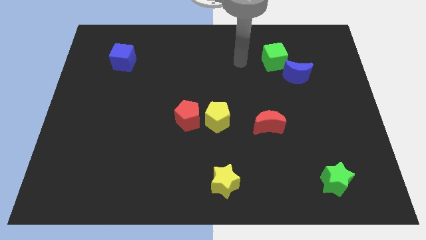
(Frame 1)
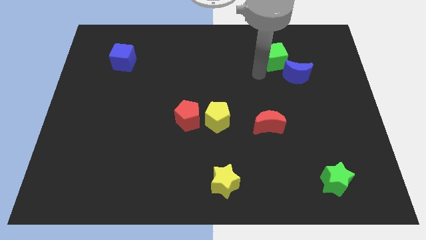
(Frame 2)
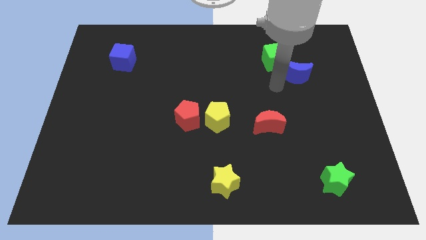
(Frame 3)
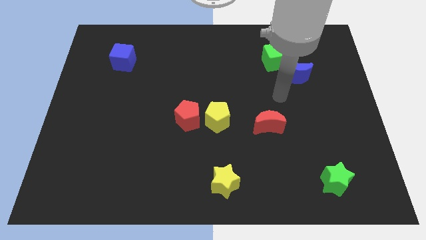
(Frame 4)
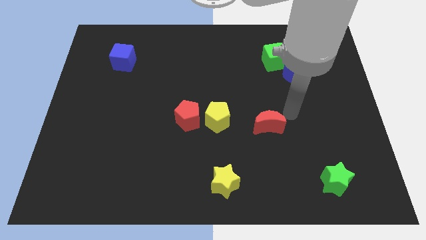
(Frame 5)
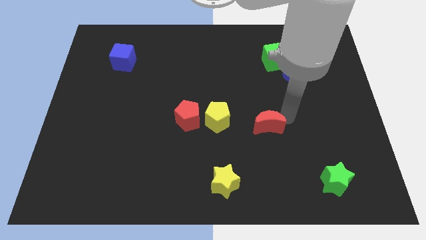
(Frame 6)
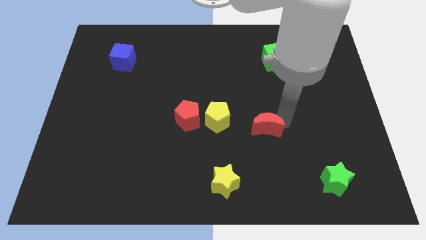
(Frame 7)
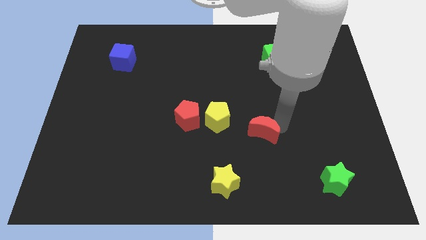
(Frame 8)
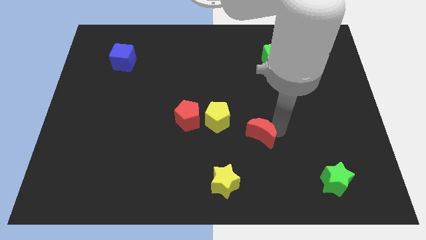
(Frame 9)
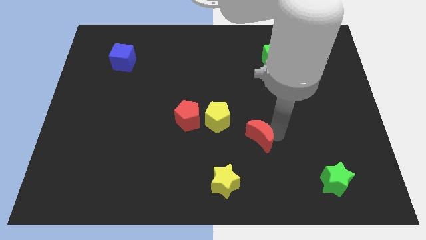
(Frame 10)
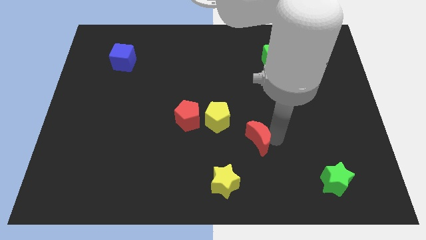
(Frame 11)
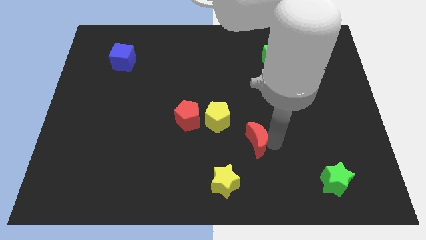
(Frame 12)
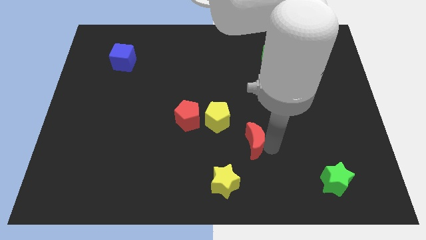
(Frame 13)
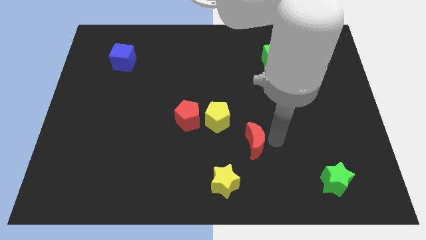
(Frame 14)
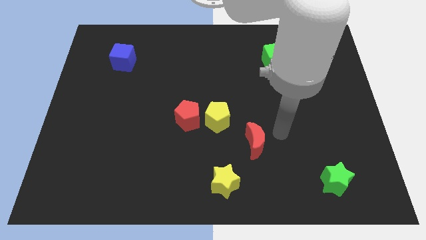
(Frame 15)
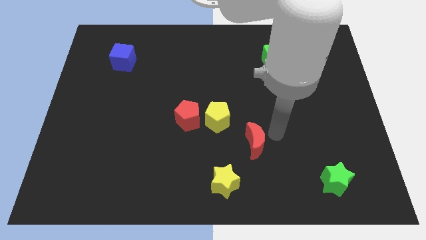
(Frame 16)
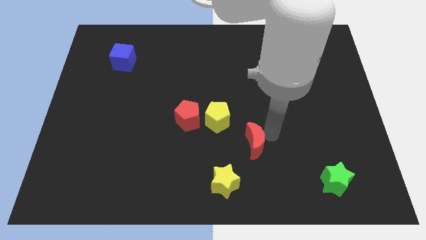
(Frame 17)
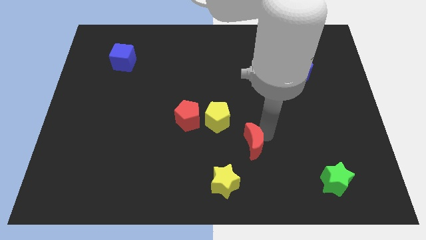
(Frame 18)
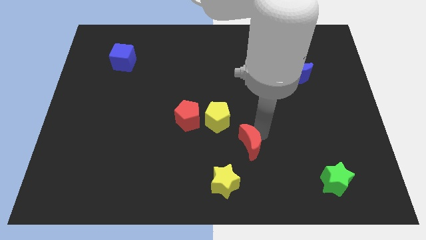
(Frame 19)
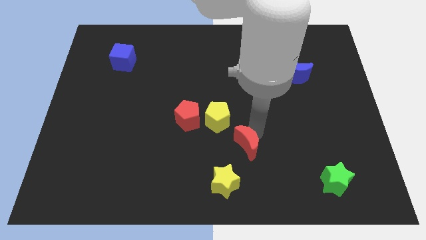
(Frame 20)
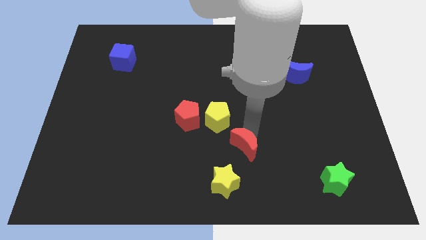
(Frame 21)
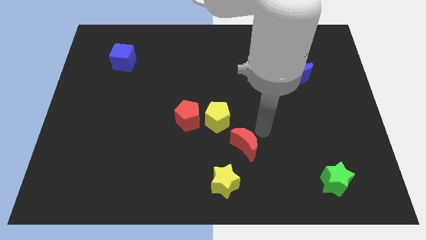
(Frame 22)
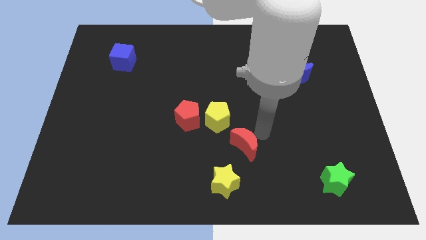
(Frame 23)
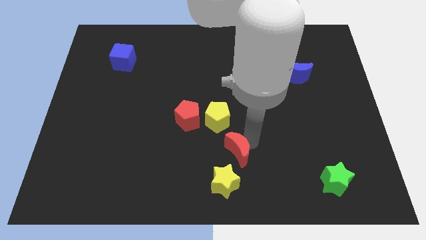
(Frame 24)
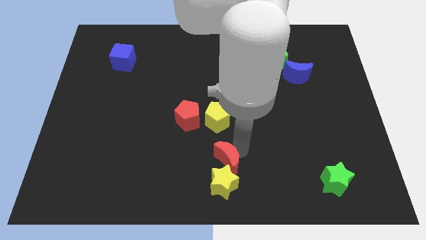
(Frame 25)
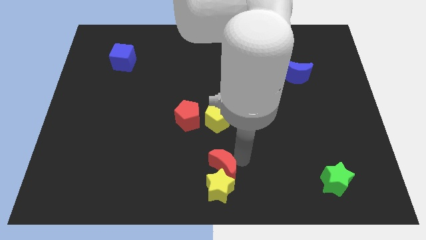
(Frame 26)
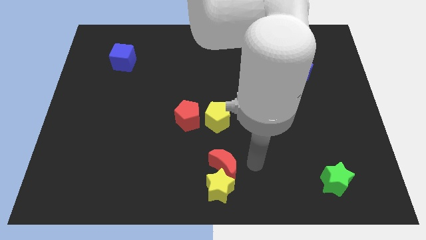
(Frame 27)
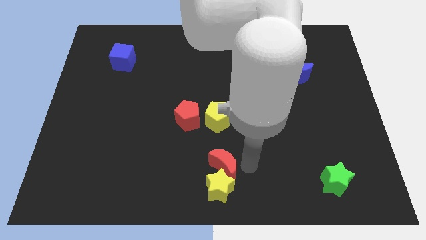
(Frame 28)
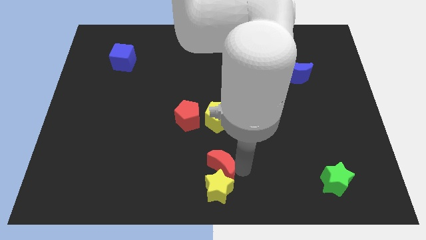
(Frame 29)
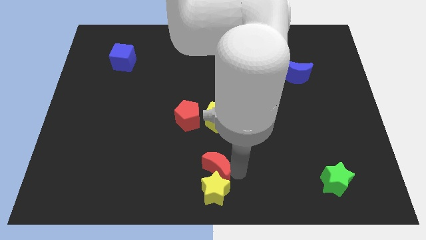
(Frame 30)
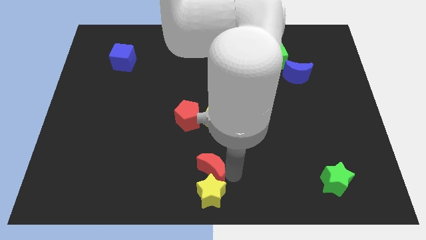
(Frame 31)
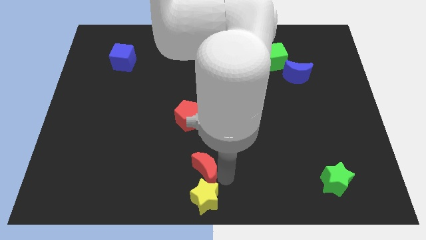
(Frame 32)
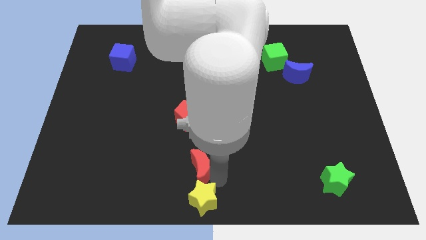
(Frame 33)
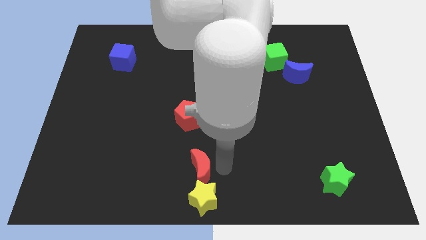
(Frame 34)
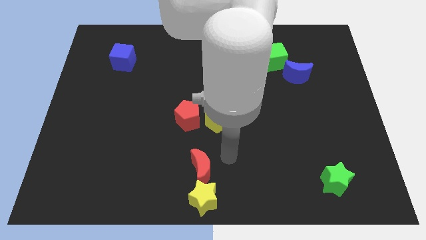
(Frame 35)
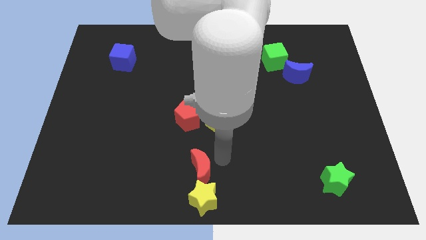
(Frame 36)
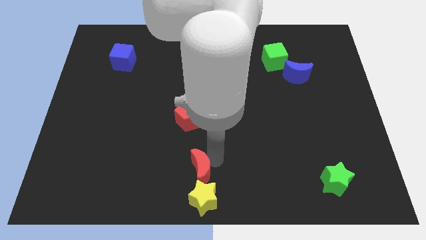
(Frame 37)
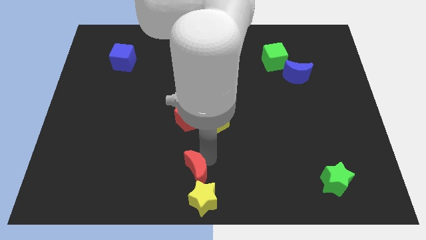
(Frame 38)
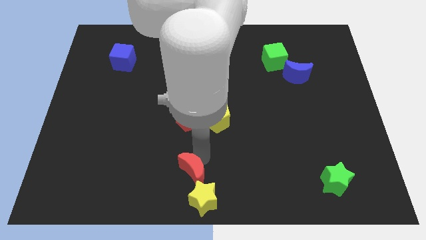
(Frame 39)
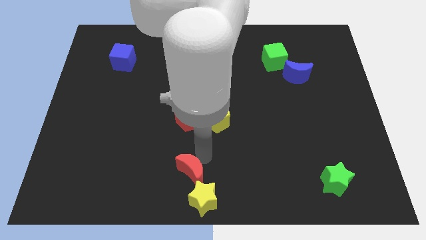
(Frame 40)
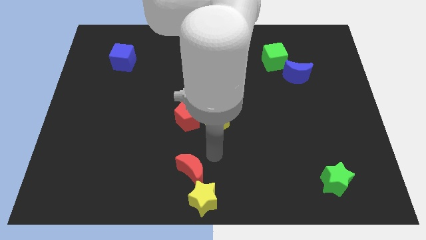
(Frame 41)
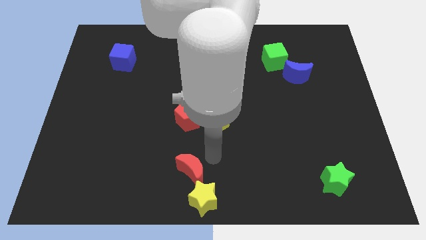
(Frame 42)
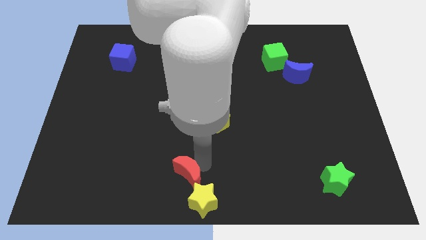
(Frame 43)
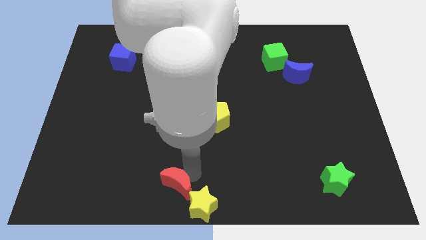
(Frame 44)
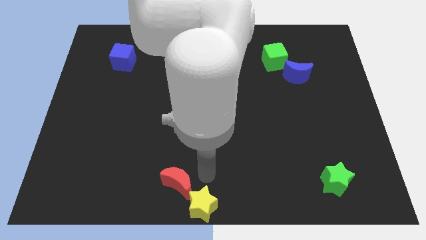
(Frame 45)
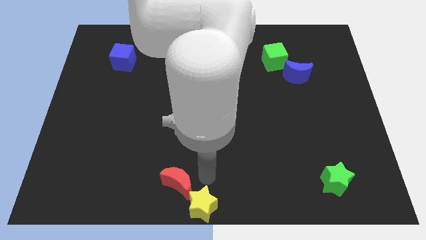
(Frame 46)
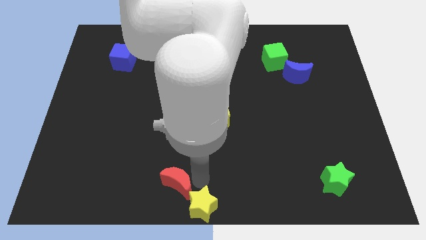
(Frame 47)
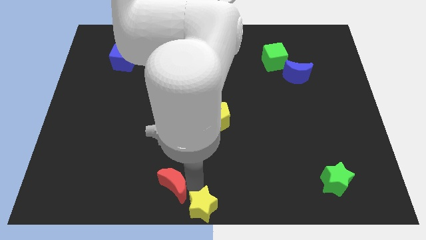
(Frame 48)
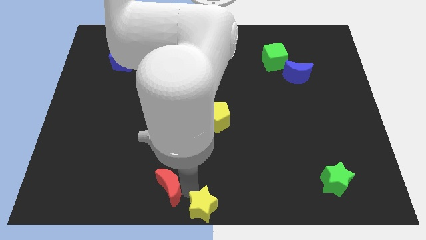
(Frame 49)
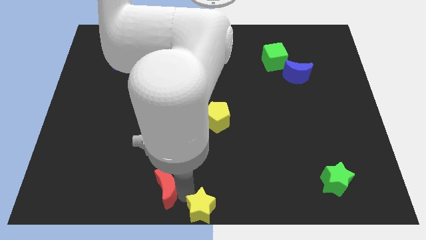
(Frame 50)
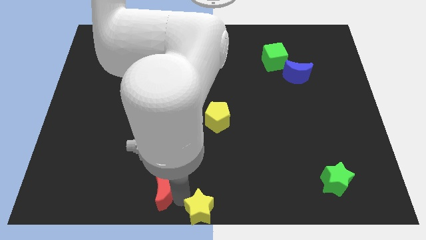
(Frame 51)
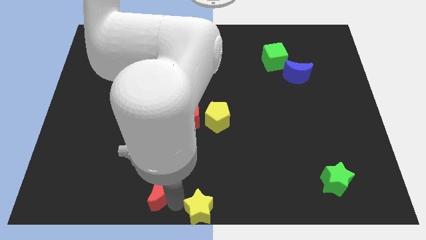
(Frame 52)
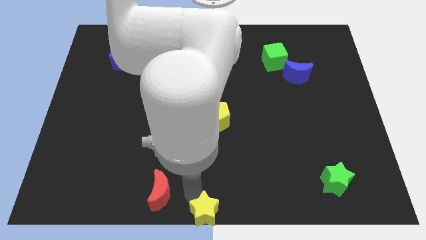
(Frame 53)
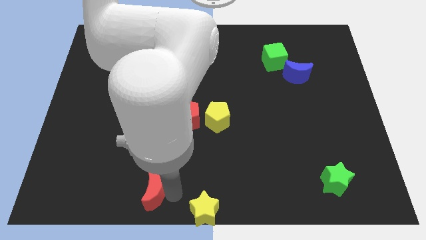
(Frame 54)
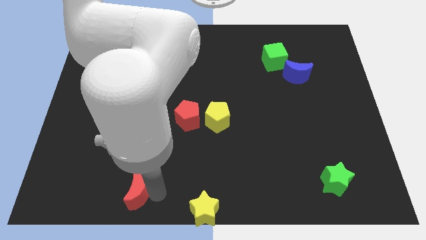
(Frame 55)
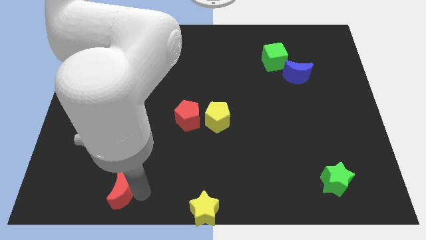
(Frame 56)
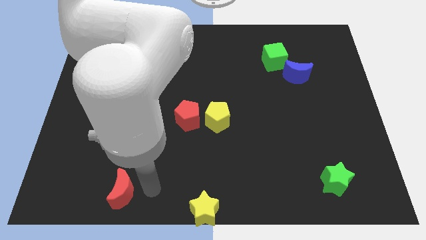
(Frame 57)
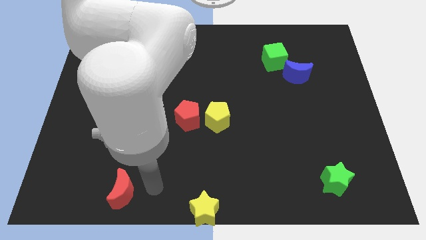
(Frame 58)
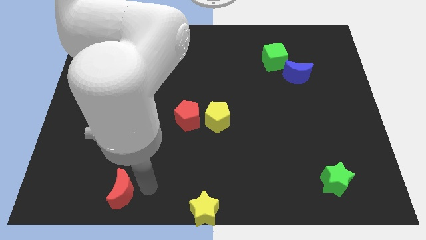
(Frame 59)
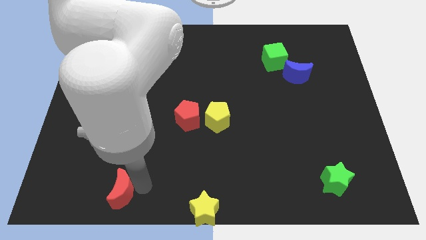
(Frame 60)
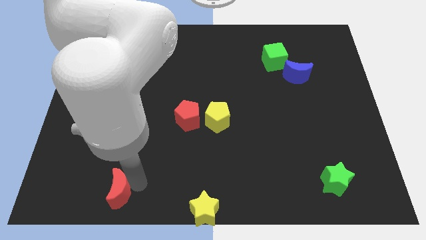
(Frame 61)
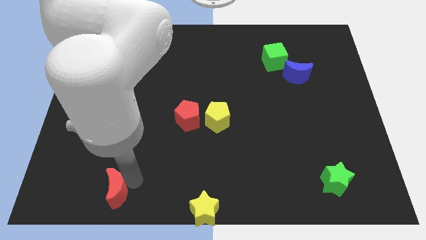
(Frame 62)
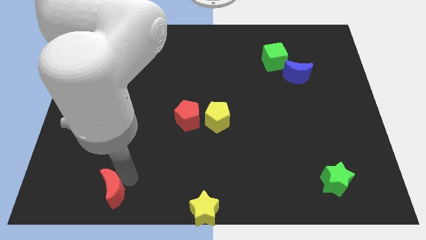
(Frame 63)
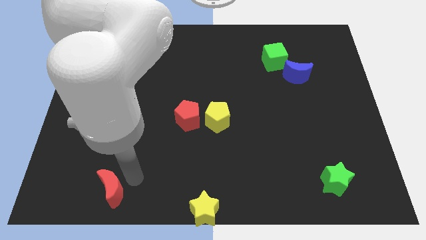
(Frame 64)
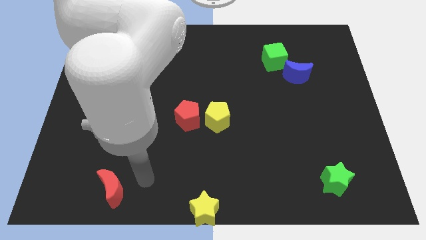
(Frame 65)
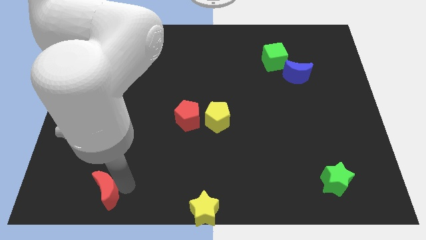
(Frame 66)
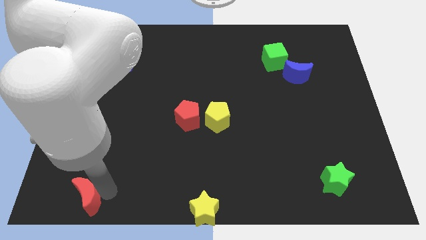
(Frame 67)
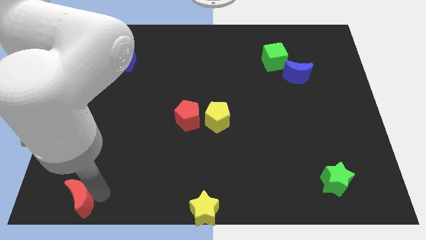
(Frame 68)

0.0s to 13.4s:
slide the red moon to the bottom left

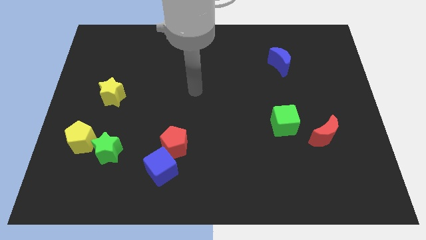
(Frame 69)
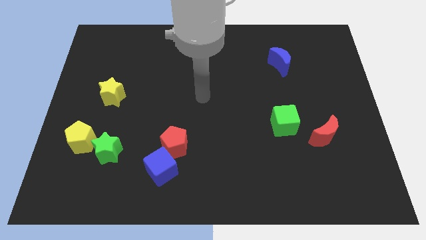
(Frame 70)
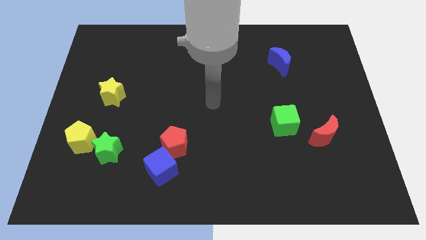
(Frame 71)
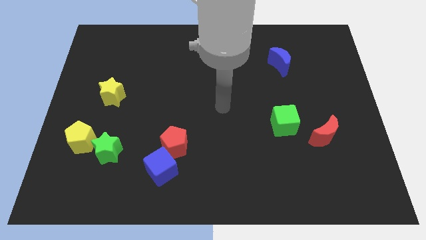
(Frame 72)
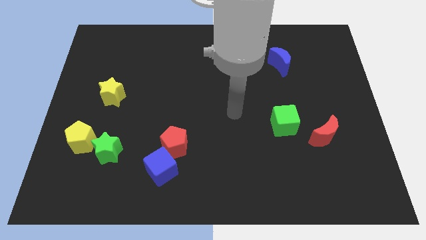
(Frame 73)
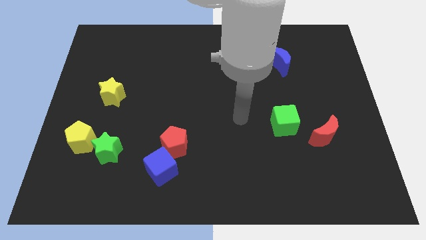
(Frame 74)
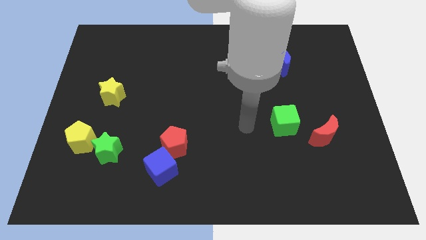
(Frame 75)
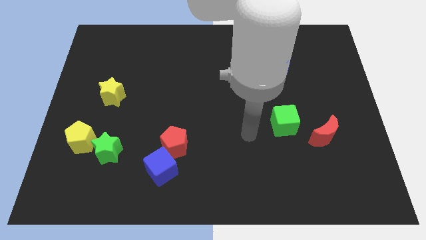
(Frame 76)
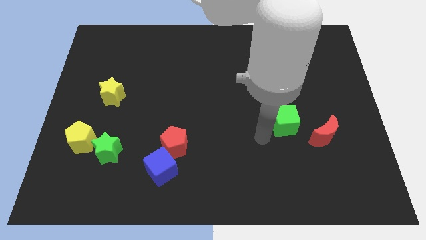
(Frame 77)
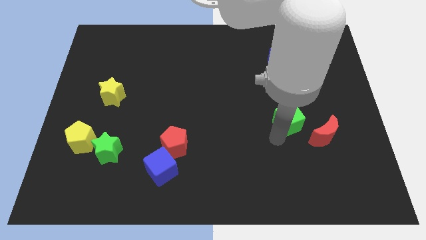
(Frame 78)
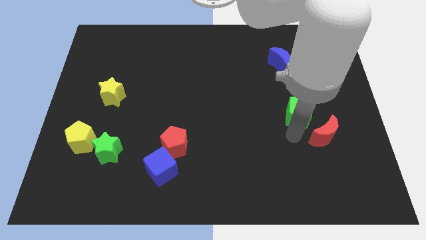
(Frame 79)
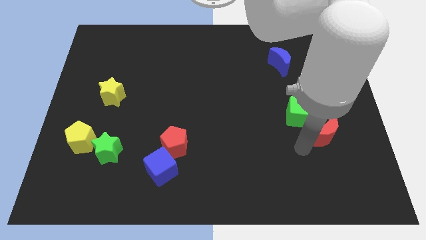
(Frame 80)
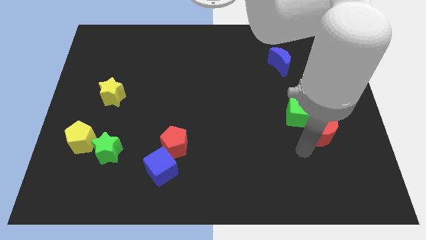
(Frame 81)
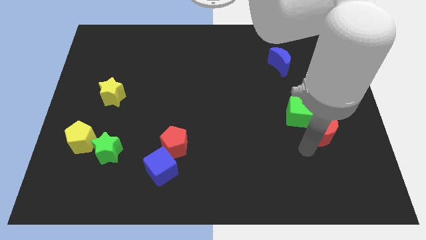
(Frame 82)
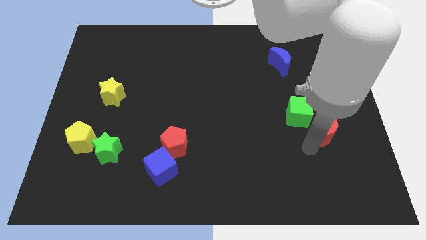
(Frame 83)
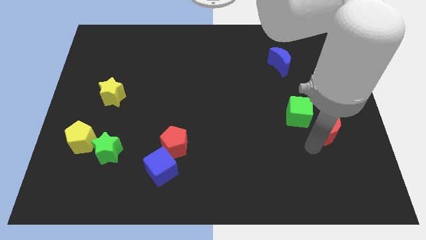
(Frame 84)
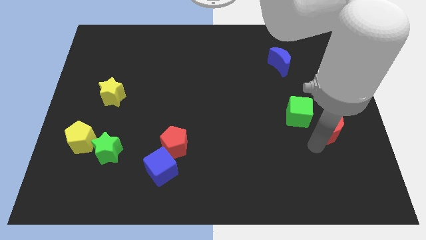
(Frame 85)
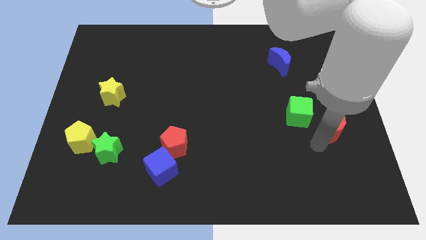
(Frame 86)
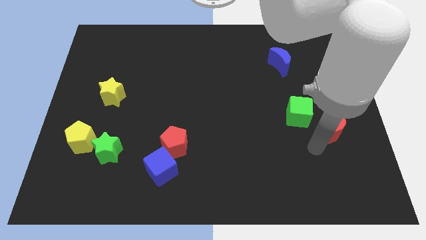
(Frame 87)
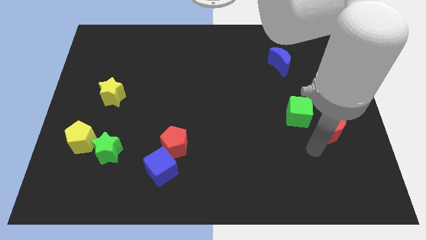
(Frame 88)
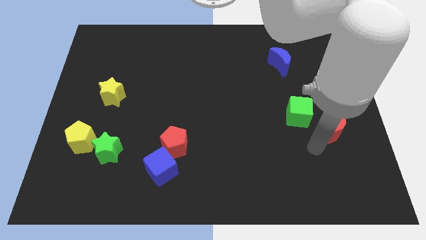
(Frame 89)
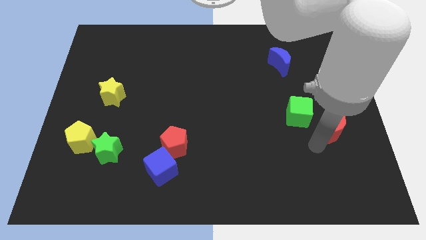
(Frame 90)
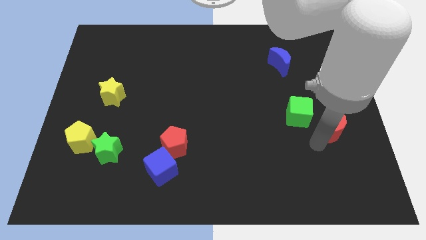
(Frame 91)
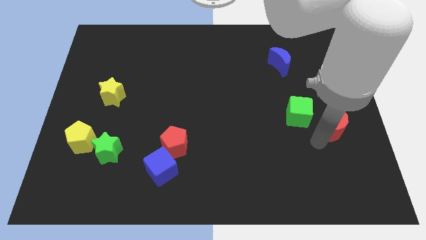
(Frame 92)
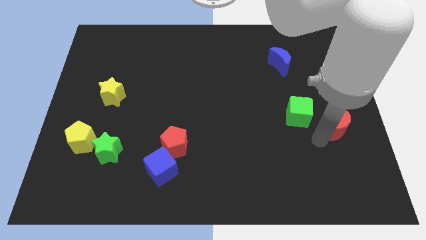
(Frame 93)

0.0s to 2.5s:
move the red moon to the right side
